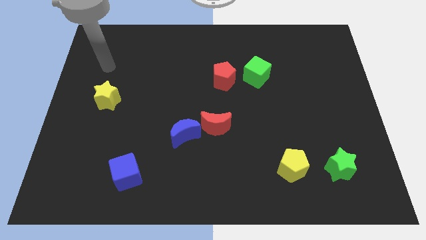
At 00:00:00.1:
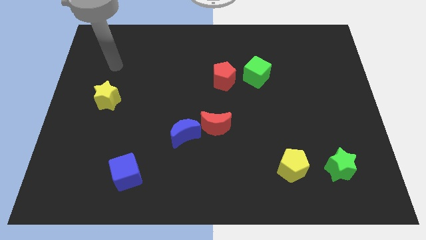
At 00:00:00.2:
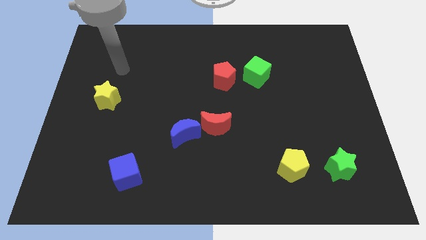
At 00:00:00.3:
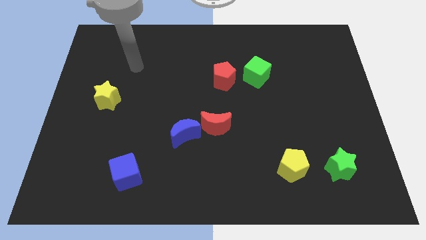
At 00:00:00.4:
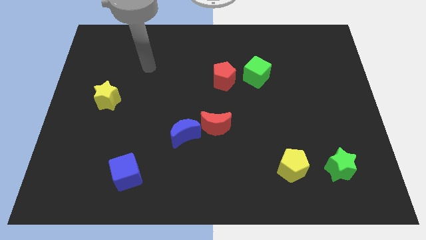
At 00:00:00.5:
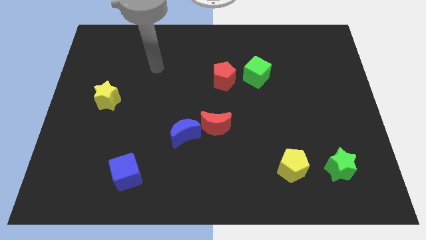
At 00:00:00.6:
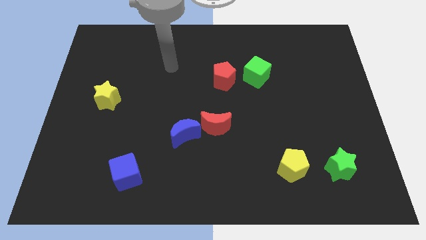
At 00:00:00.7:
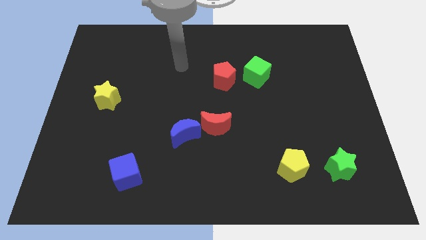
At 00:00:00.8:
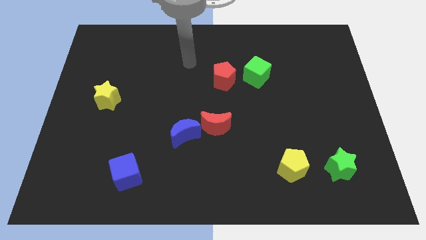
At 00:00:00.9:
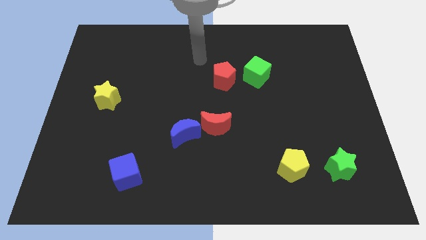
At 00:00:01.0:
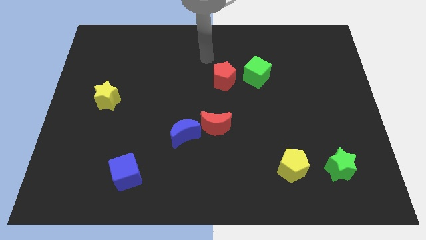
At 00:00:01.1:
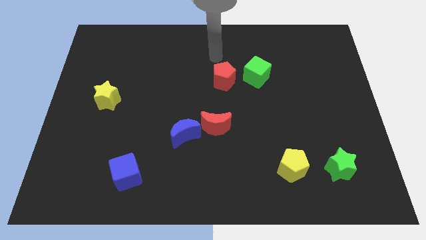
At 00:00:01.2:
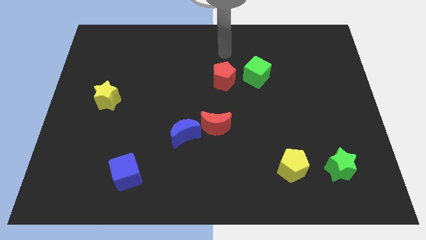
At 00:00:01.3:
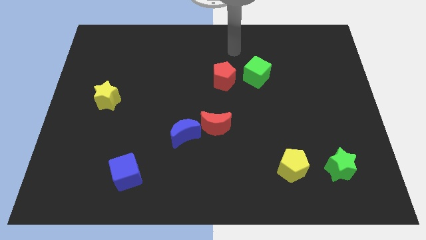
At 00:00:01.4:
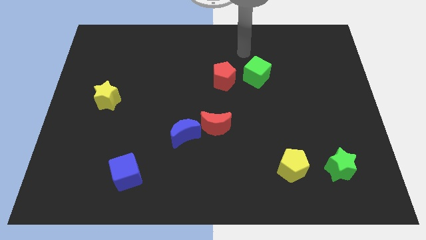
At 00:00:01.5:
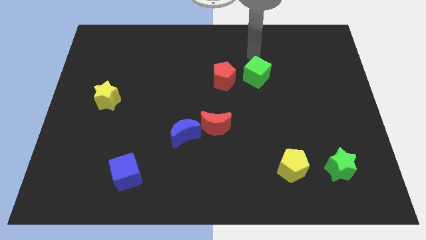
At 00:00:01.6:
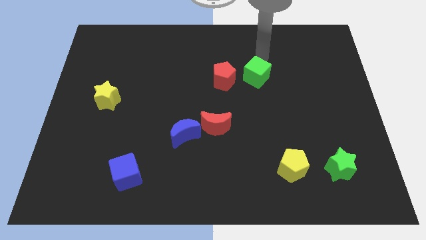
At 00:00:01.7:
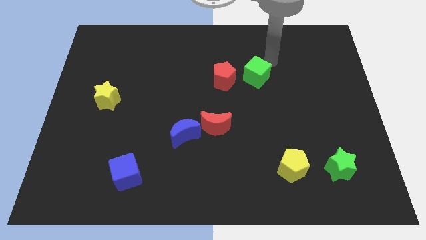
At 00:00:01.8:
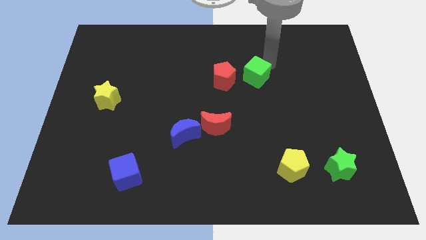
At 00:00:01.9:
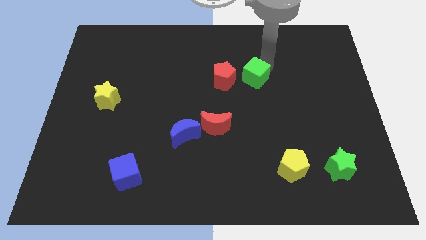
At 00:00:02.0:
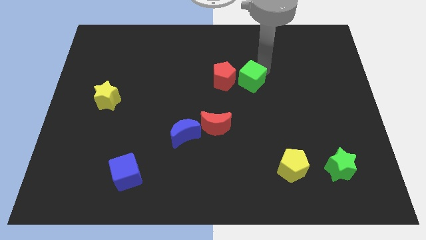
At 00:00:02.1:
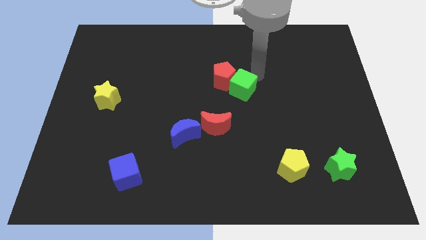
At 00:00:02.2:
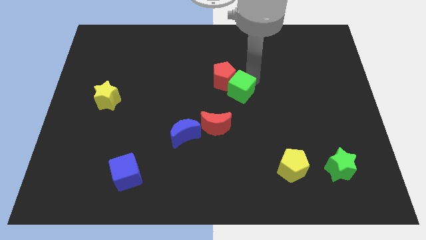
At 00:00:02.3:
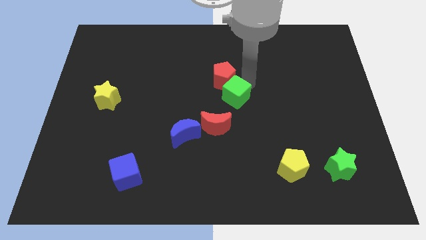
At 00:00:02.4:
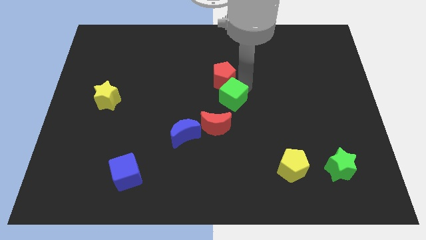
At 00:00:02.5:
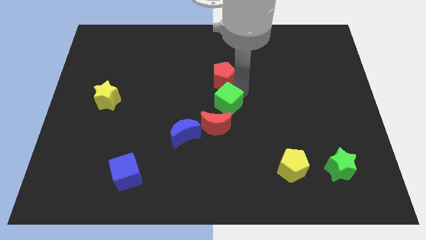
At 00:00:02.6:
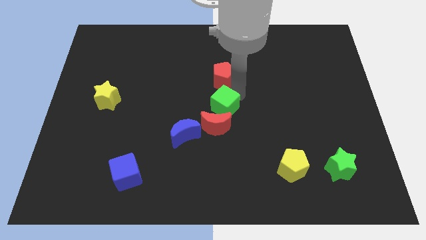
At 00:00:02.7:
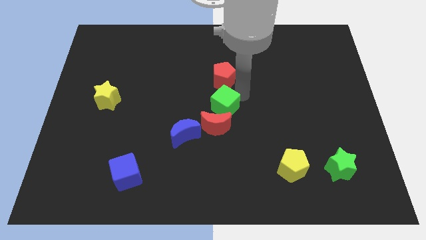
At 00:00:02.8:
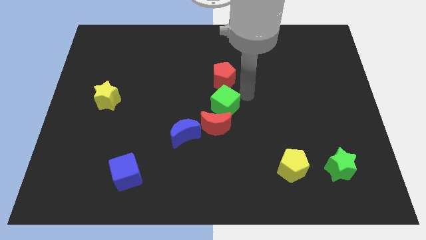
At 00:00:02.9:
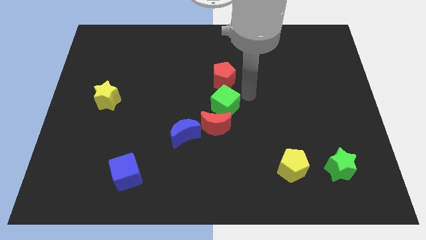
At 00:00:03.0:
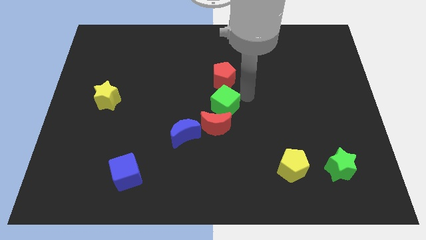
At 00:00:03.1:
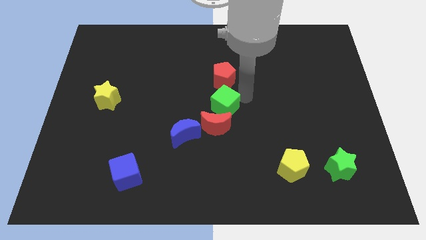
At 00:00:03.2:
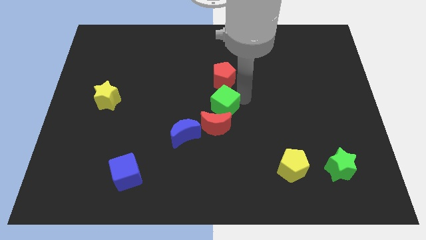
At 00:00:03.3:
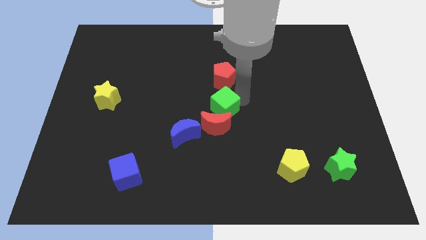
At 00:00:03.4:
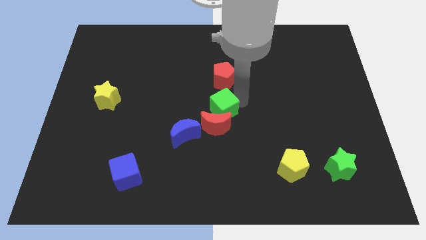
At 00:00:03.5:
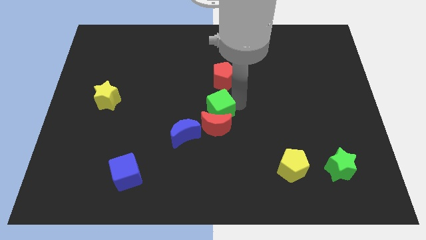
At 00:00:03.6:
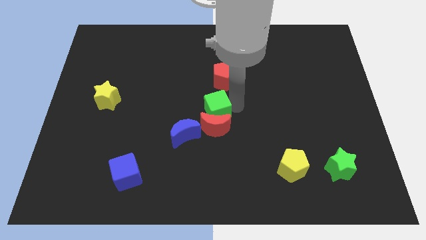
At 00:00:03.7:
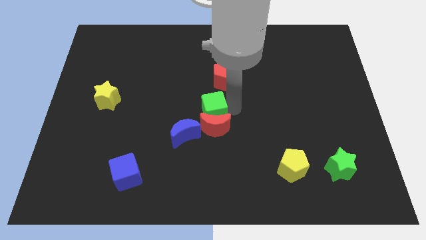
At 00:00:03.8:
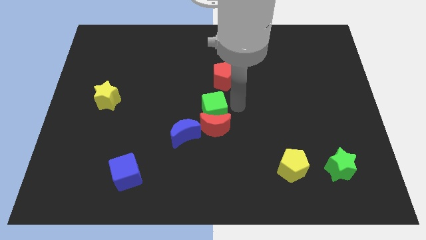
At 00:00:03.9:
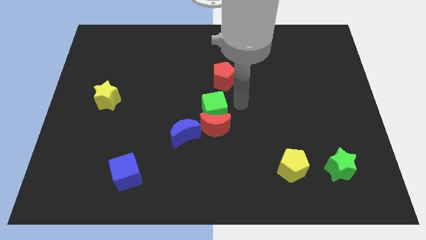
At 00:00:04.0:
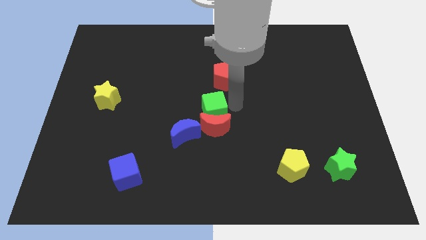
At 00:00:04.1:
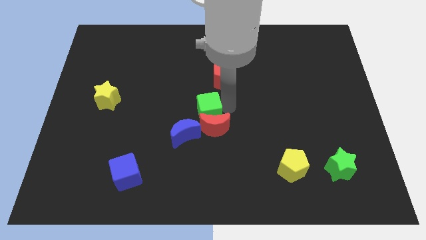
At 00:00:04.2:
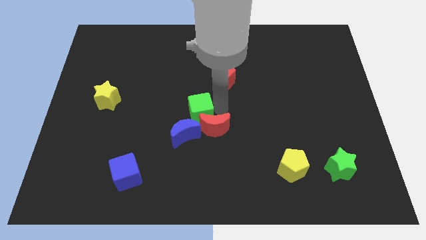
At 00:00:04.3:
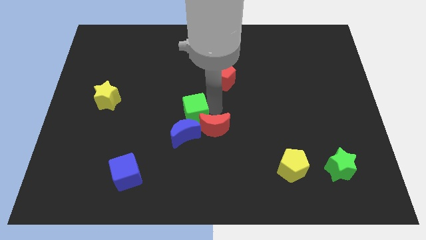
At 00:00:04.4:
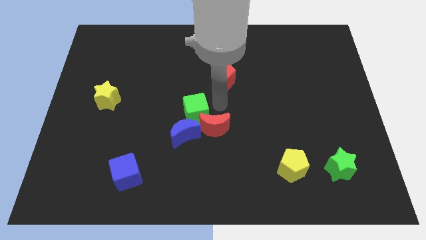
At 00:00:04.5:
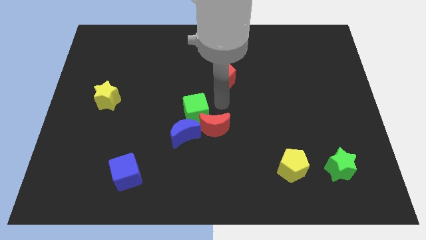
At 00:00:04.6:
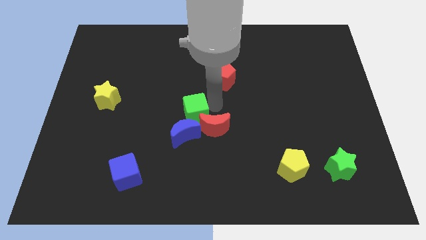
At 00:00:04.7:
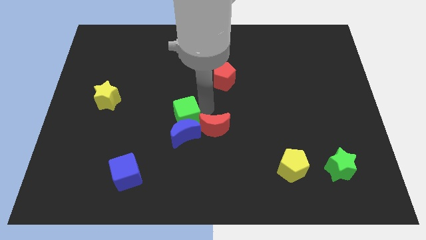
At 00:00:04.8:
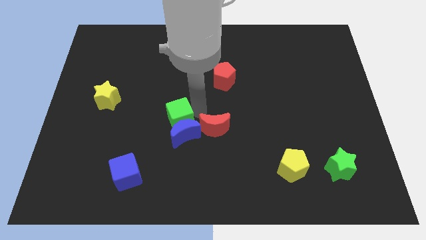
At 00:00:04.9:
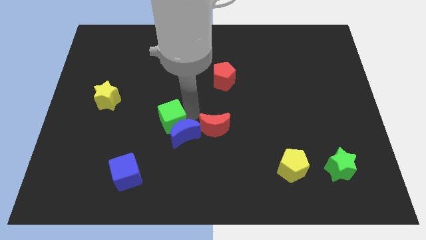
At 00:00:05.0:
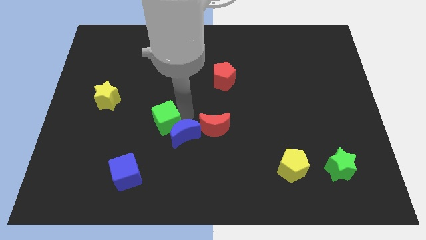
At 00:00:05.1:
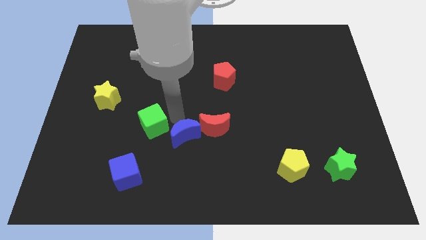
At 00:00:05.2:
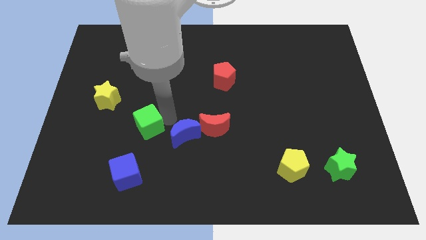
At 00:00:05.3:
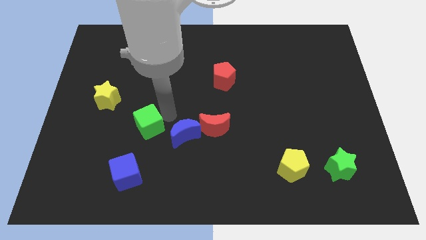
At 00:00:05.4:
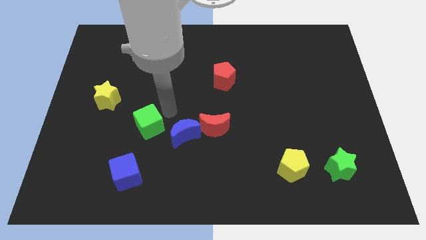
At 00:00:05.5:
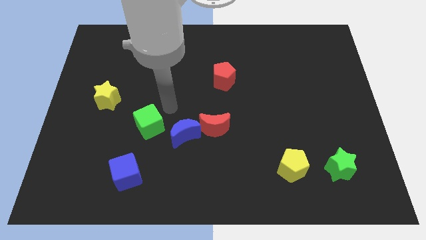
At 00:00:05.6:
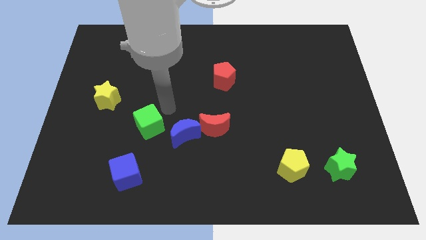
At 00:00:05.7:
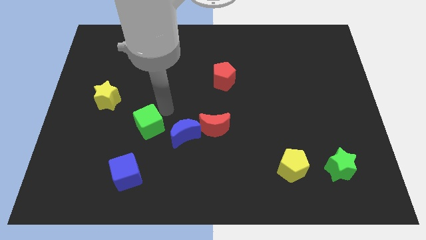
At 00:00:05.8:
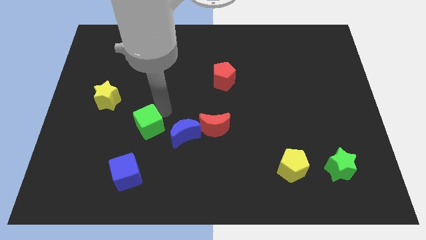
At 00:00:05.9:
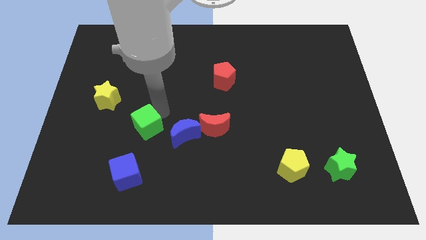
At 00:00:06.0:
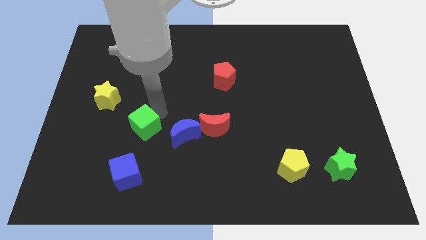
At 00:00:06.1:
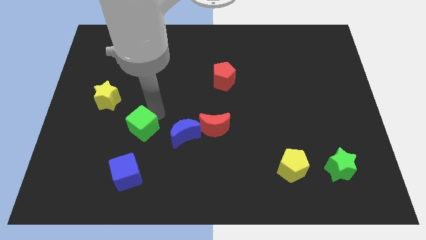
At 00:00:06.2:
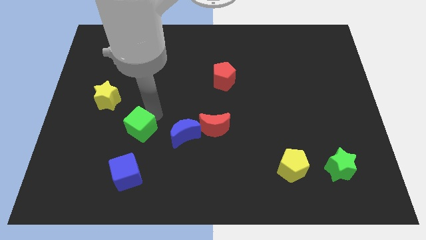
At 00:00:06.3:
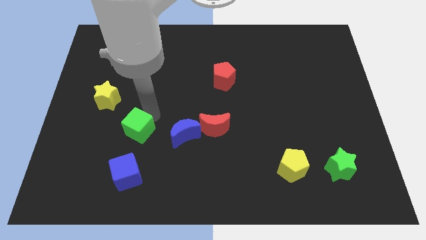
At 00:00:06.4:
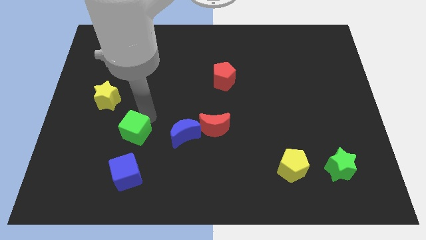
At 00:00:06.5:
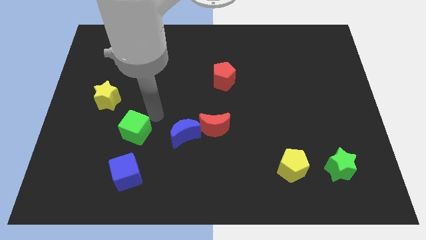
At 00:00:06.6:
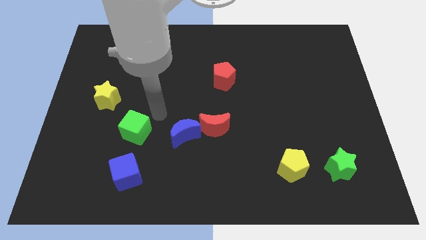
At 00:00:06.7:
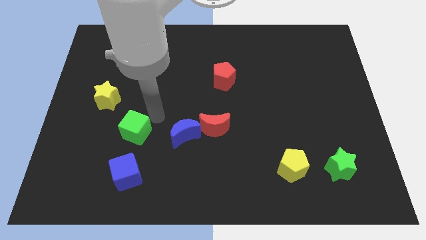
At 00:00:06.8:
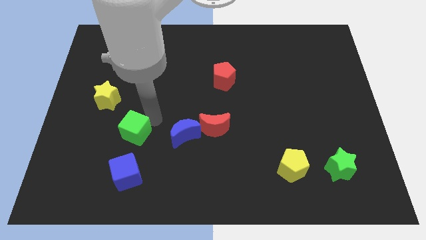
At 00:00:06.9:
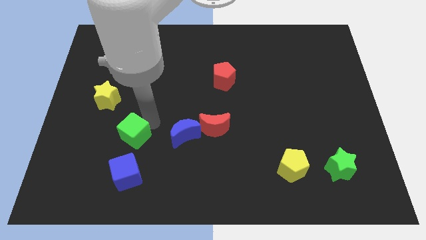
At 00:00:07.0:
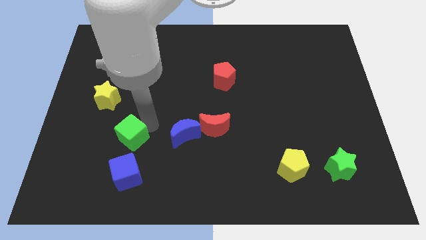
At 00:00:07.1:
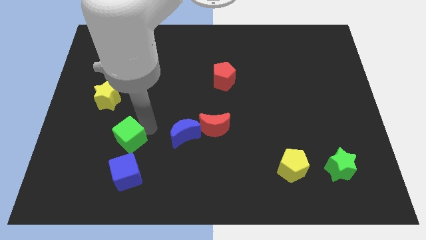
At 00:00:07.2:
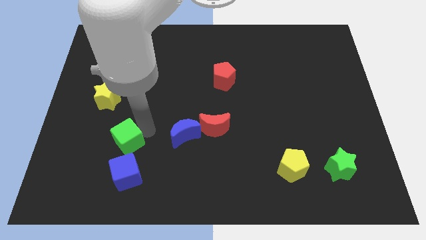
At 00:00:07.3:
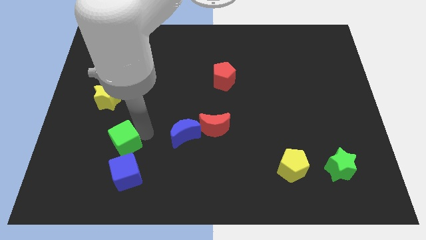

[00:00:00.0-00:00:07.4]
push the green cube diagonally up and to the left of the blue cube
